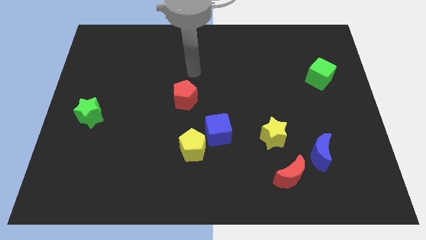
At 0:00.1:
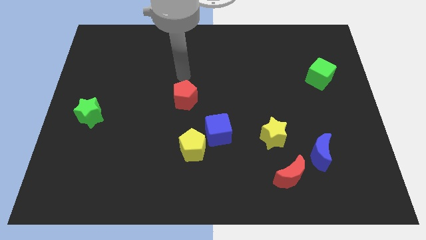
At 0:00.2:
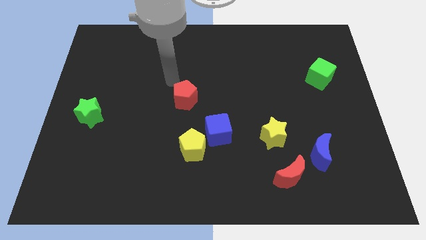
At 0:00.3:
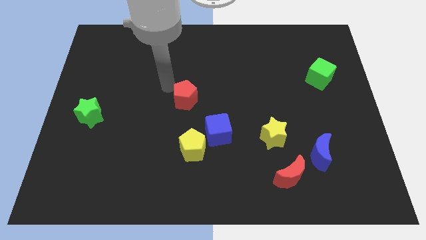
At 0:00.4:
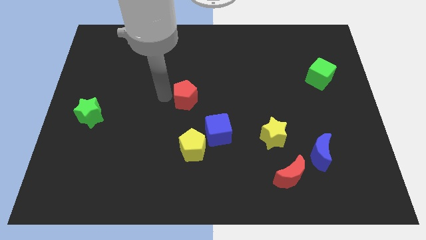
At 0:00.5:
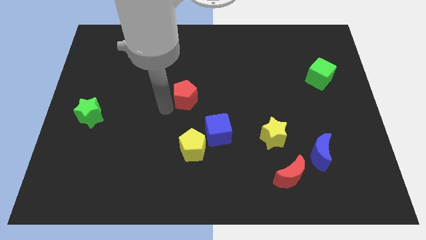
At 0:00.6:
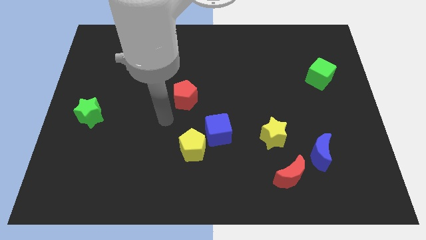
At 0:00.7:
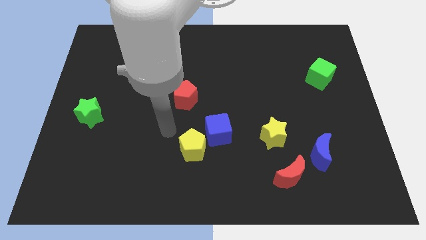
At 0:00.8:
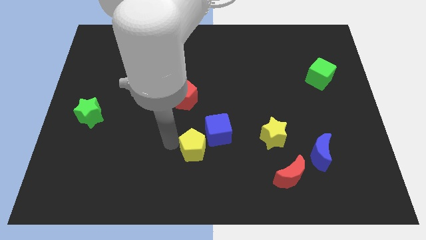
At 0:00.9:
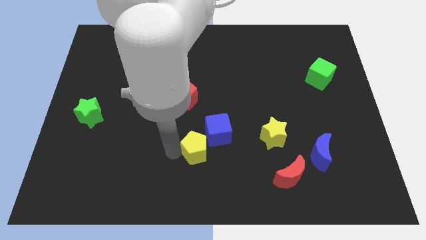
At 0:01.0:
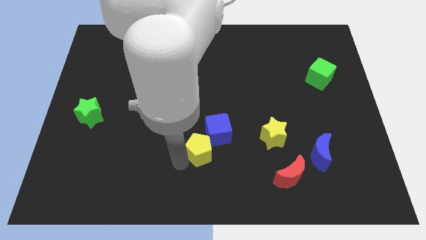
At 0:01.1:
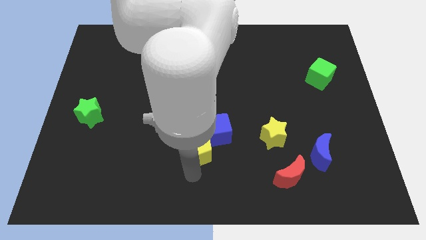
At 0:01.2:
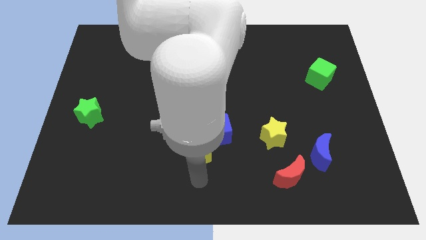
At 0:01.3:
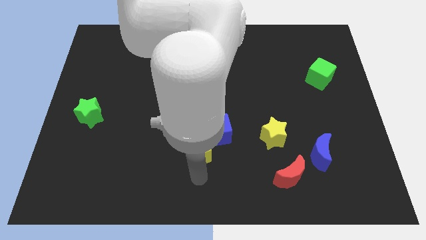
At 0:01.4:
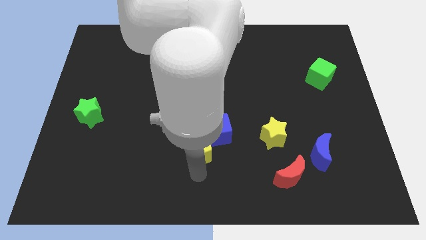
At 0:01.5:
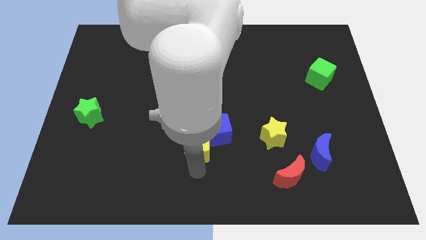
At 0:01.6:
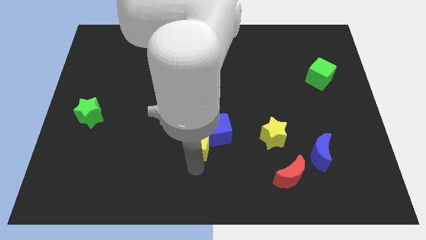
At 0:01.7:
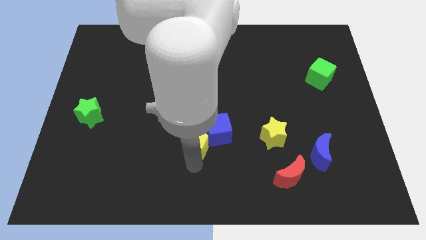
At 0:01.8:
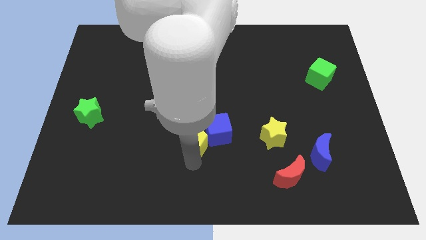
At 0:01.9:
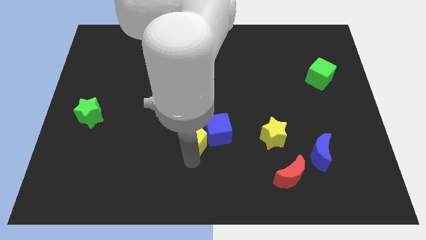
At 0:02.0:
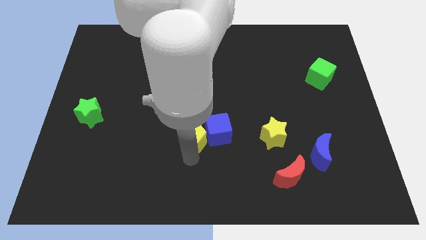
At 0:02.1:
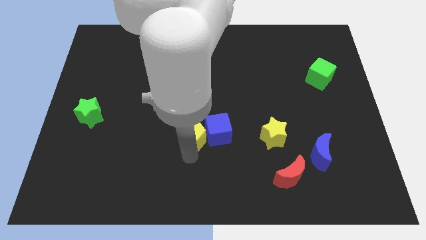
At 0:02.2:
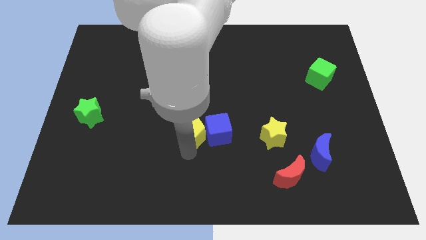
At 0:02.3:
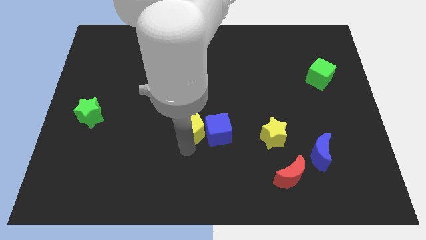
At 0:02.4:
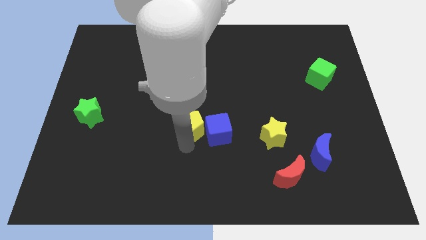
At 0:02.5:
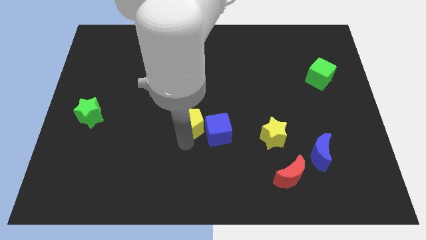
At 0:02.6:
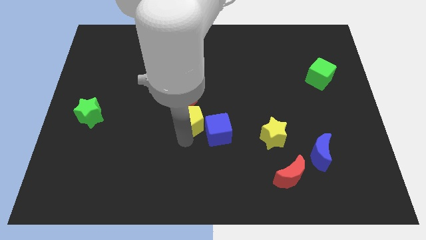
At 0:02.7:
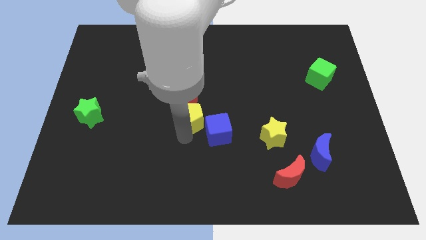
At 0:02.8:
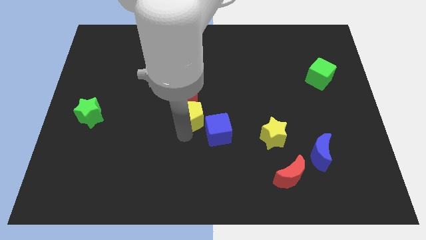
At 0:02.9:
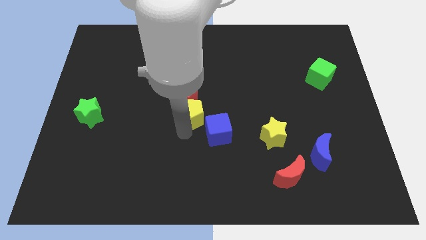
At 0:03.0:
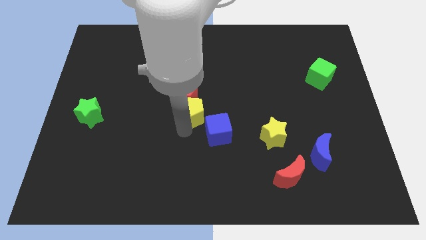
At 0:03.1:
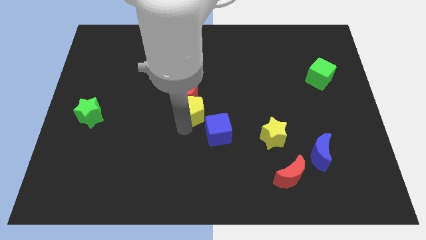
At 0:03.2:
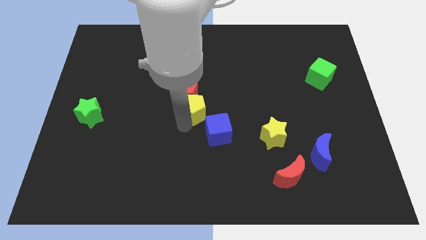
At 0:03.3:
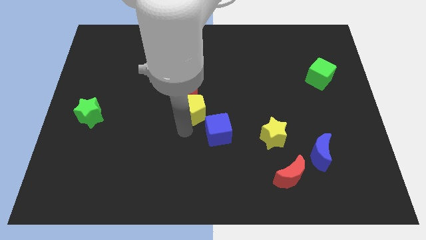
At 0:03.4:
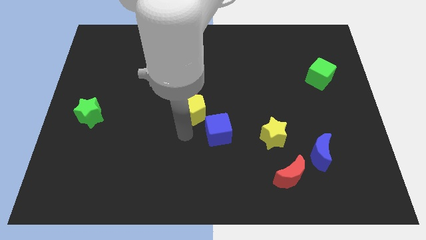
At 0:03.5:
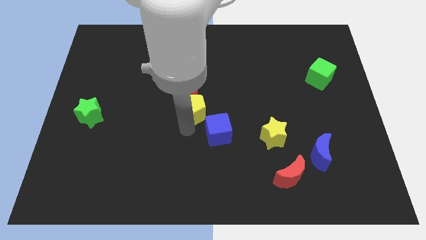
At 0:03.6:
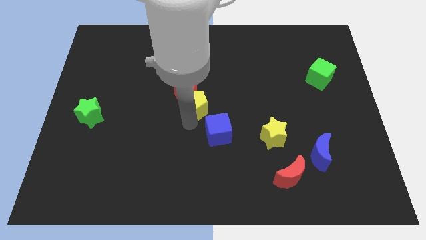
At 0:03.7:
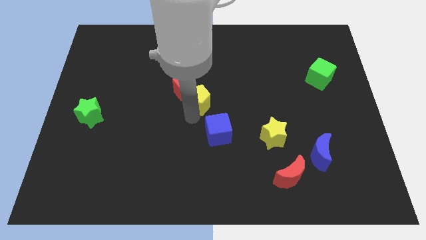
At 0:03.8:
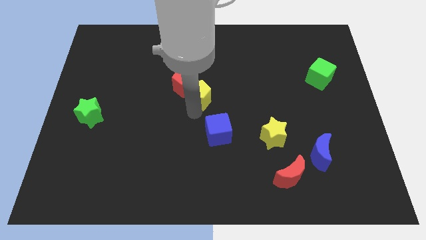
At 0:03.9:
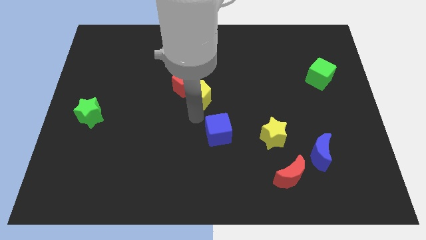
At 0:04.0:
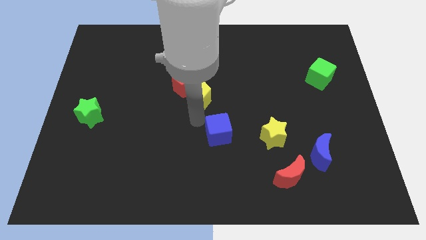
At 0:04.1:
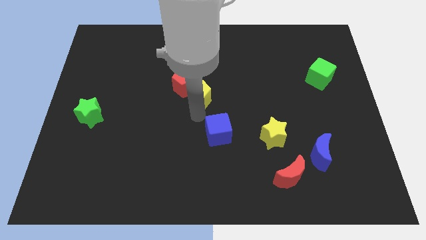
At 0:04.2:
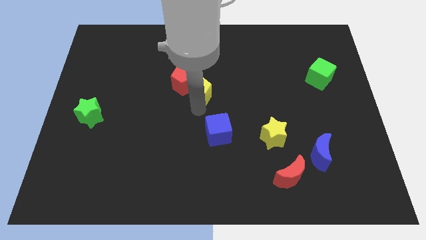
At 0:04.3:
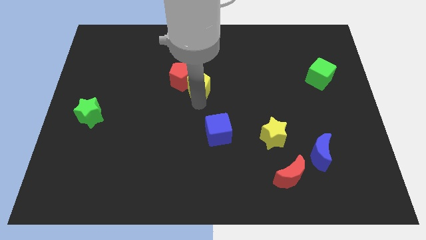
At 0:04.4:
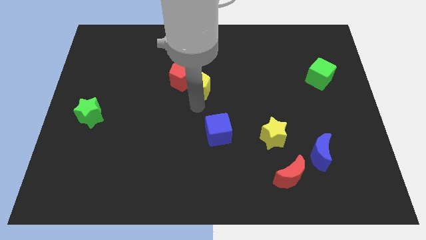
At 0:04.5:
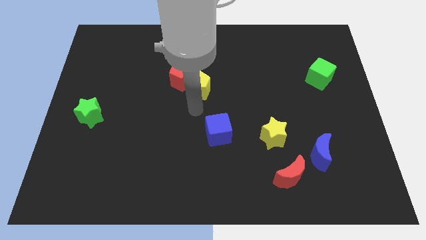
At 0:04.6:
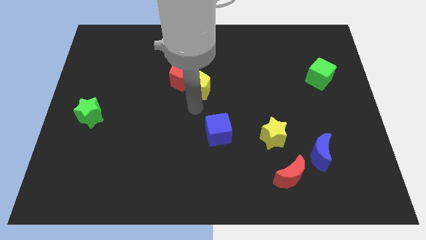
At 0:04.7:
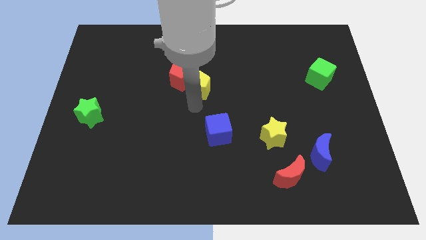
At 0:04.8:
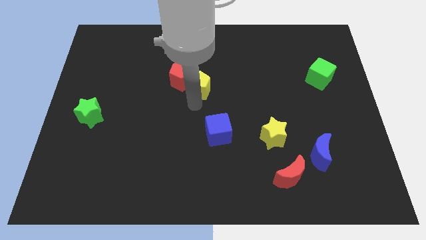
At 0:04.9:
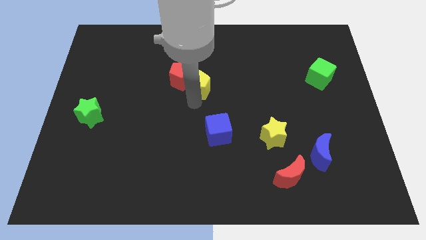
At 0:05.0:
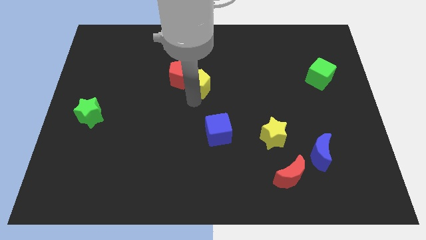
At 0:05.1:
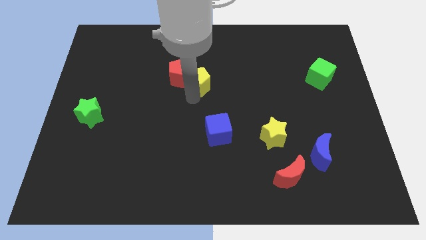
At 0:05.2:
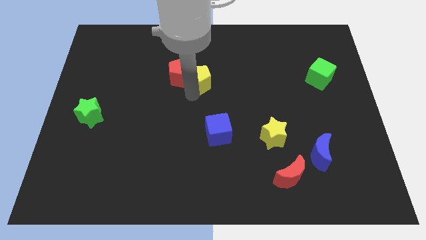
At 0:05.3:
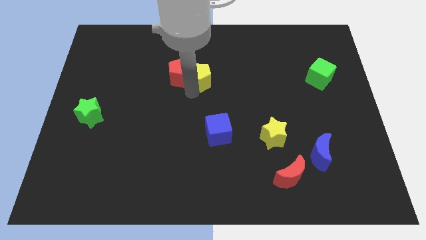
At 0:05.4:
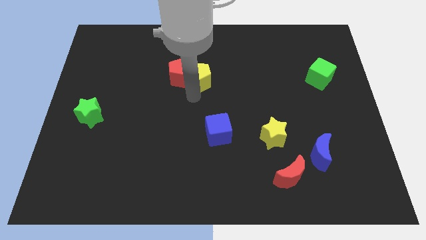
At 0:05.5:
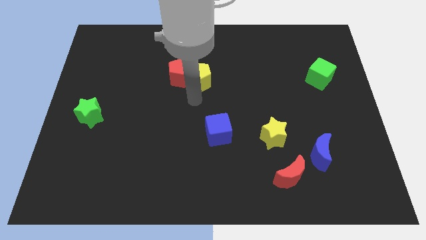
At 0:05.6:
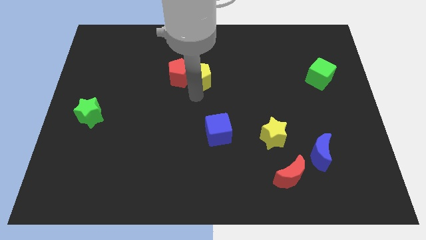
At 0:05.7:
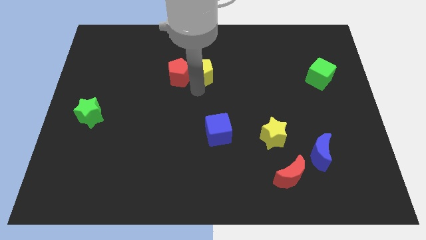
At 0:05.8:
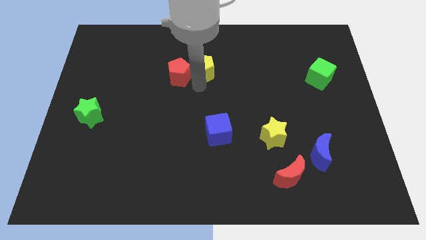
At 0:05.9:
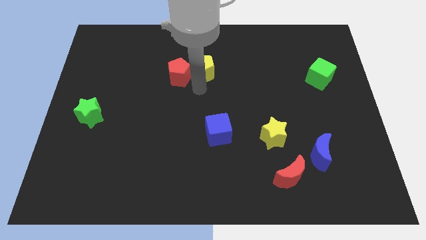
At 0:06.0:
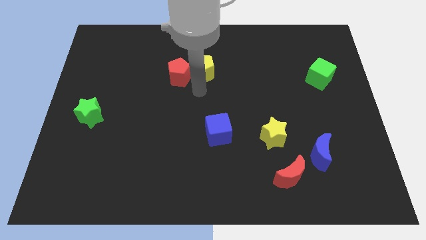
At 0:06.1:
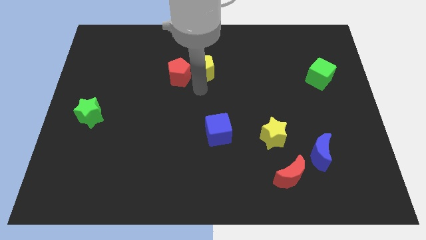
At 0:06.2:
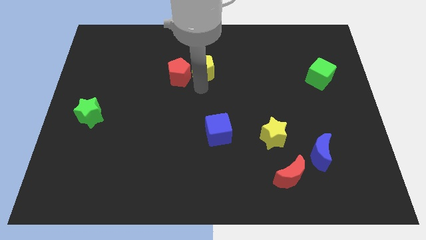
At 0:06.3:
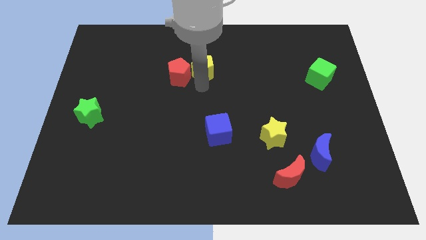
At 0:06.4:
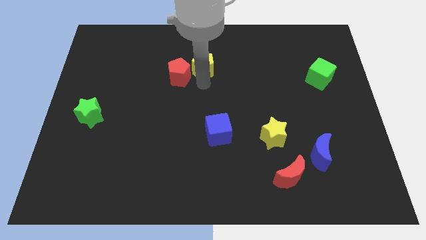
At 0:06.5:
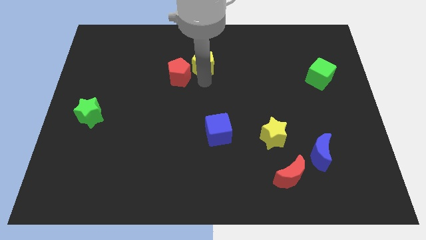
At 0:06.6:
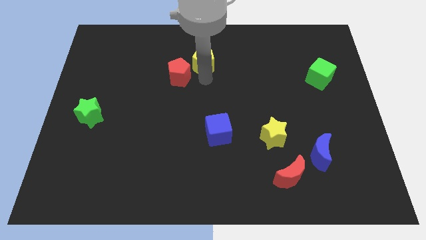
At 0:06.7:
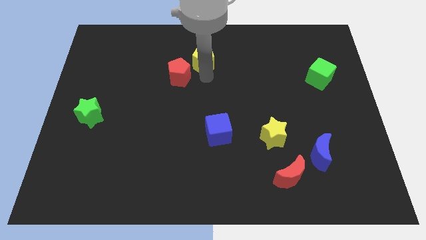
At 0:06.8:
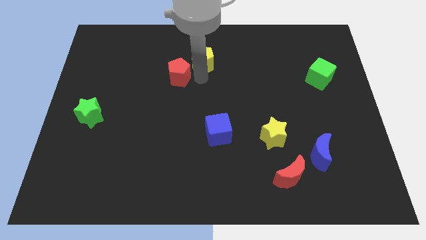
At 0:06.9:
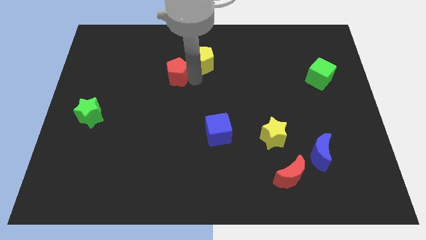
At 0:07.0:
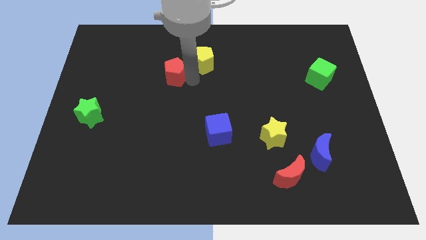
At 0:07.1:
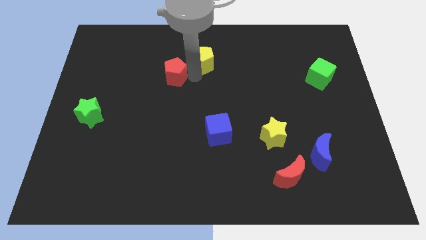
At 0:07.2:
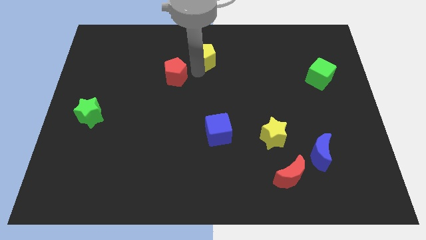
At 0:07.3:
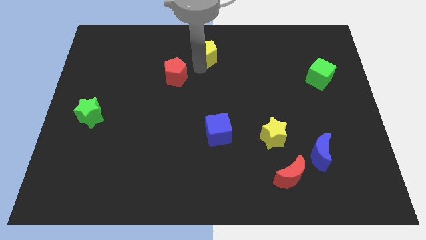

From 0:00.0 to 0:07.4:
move the yellow pentagon to the top
